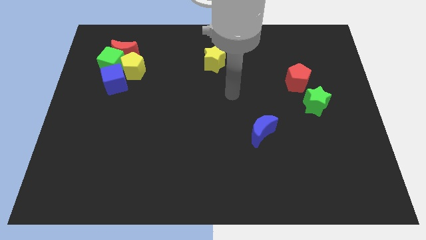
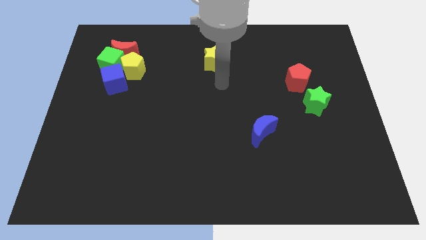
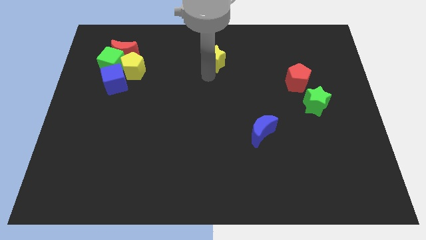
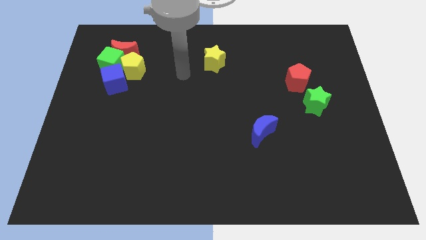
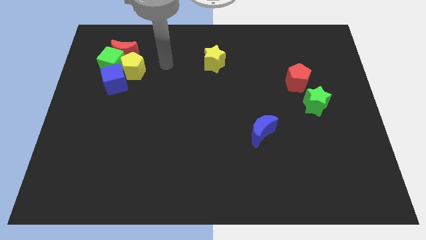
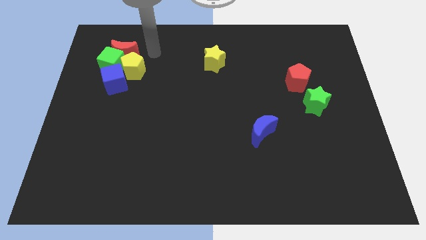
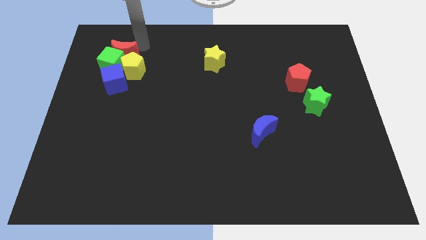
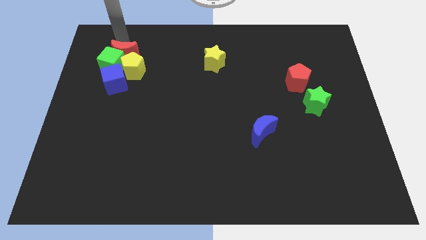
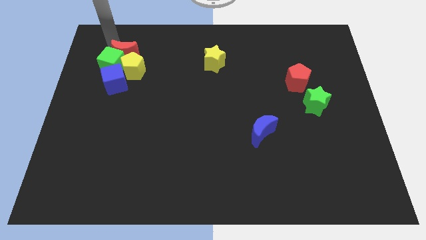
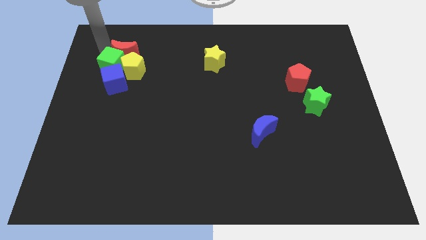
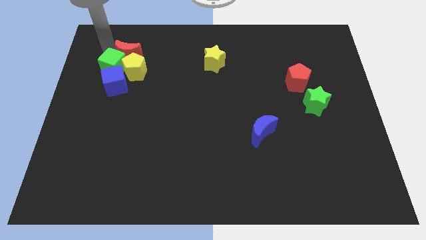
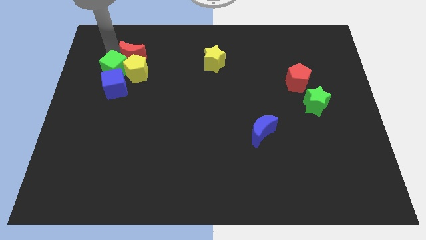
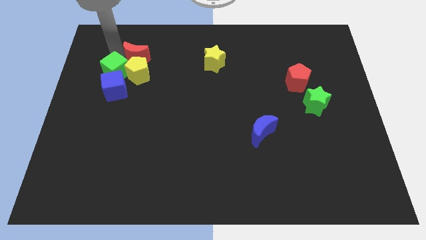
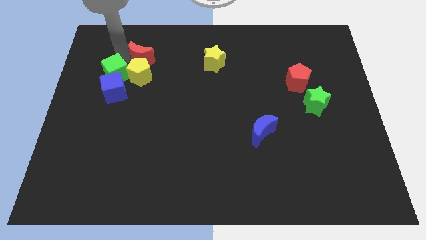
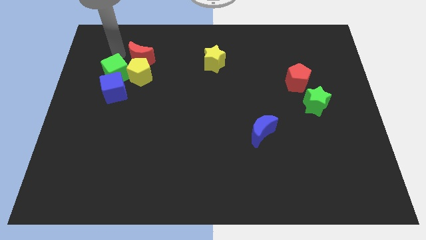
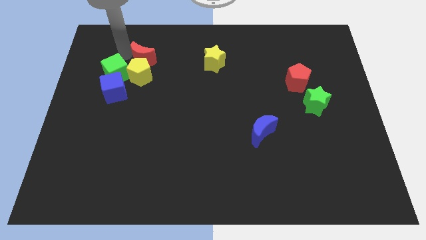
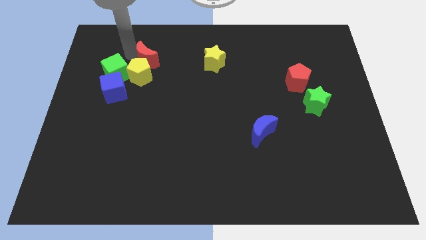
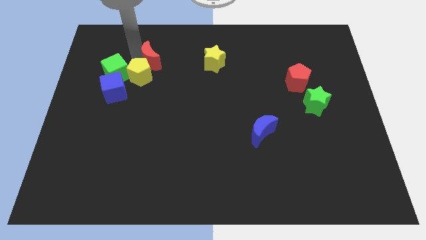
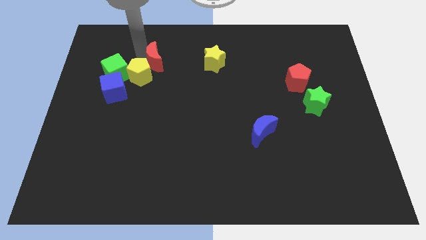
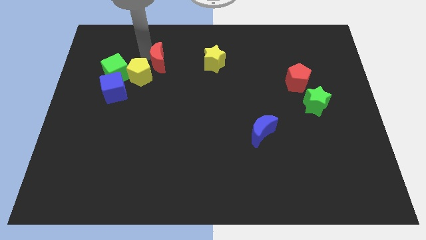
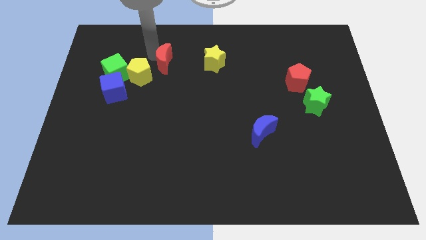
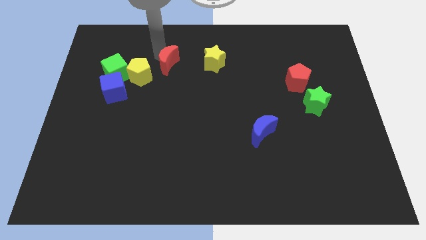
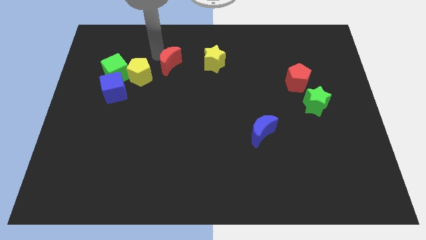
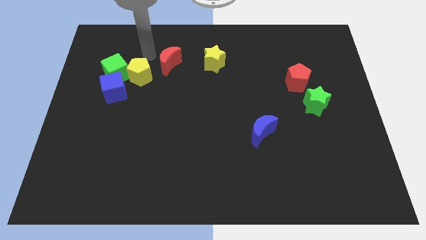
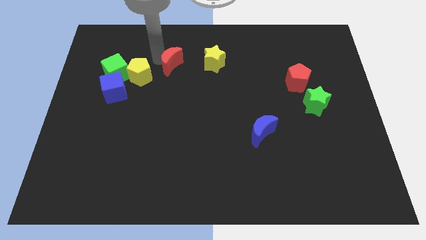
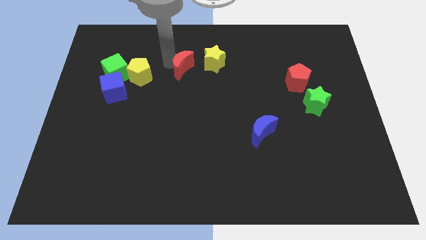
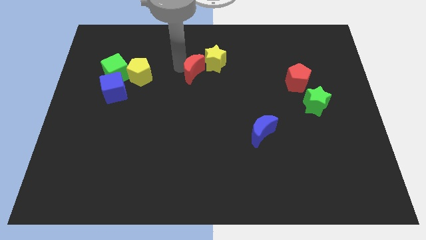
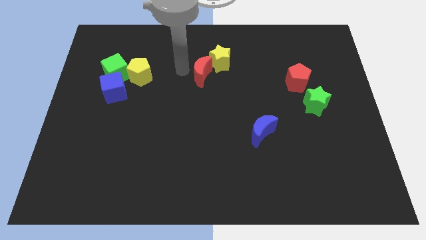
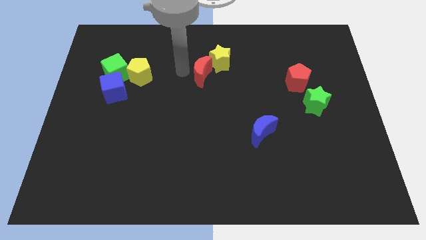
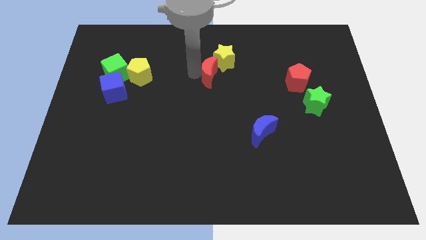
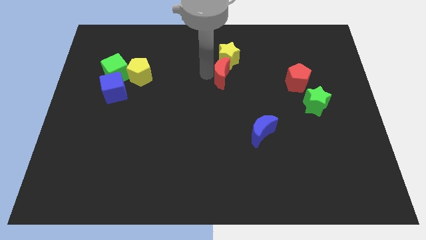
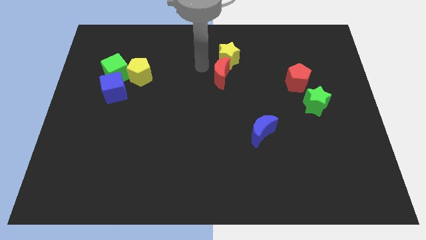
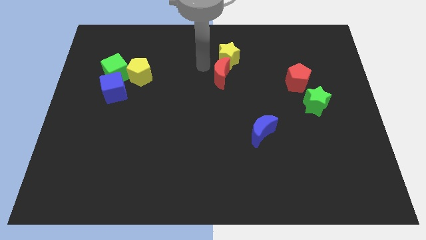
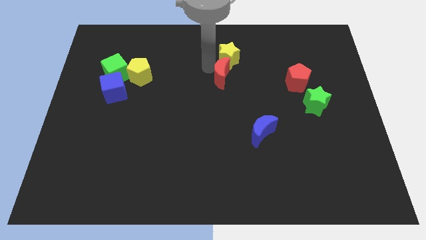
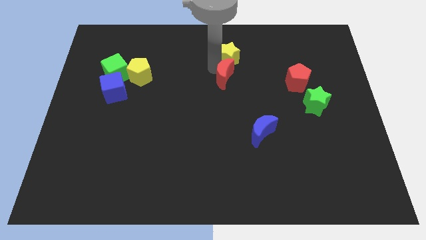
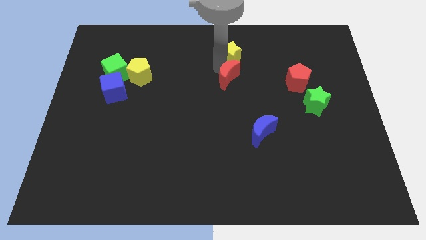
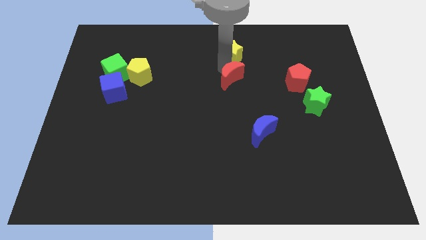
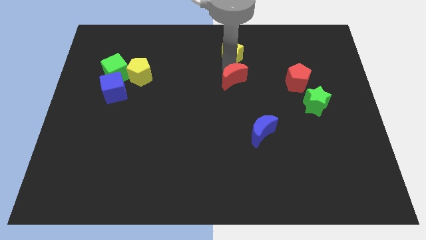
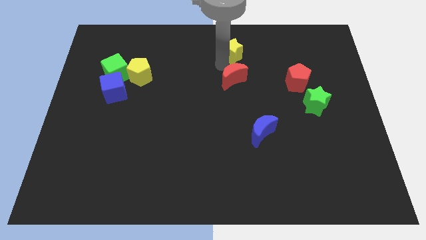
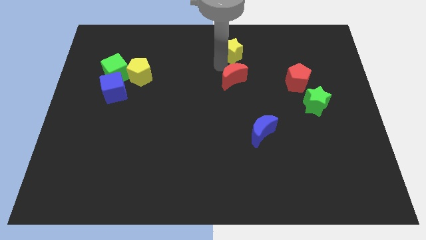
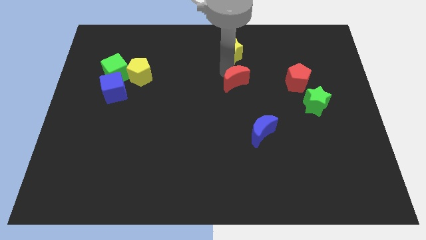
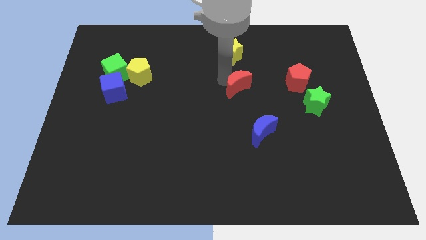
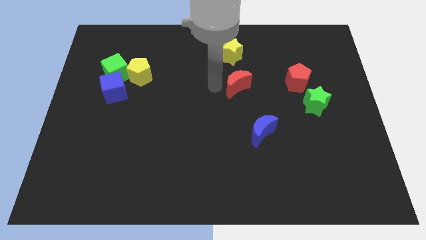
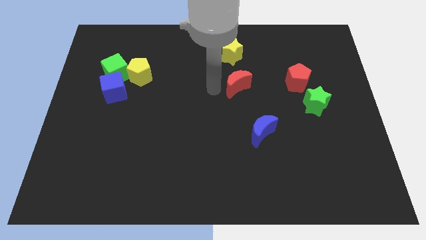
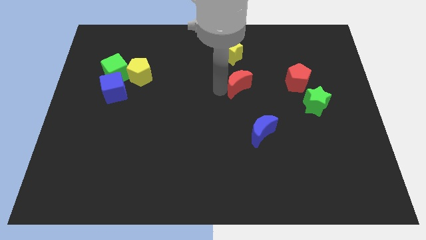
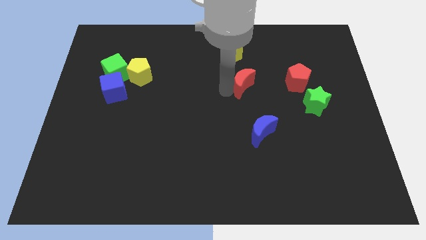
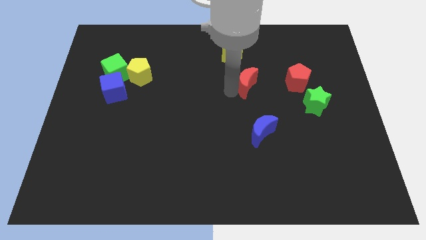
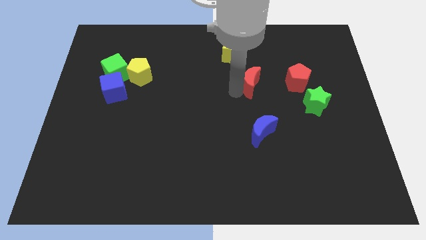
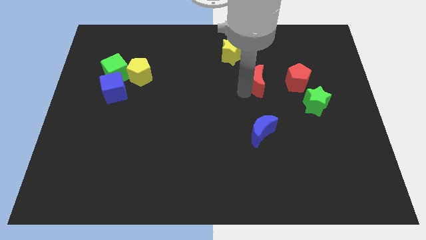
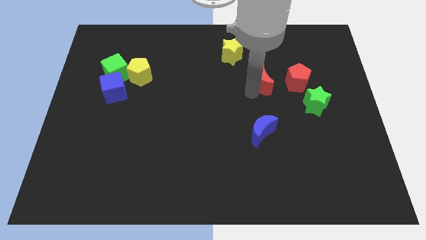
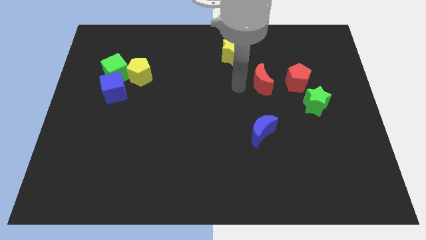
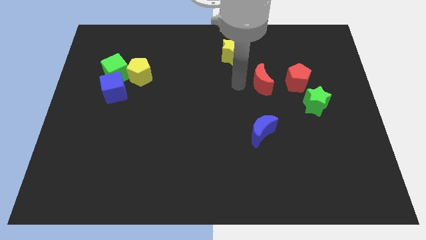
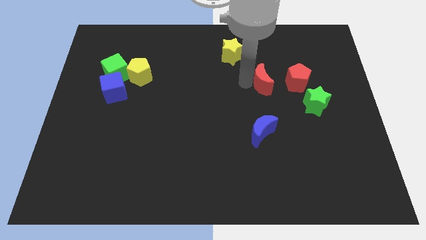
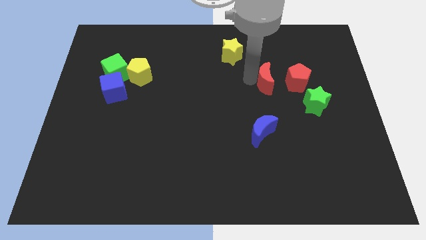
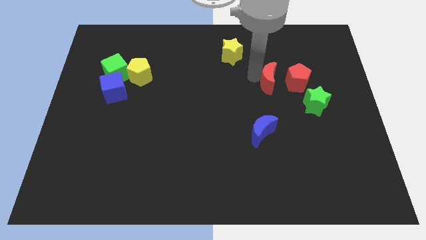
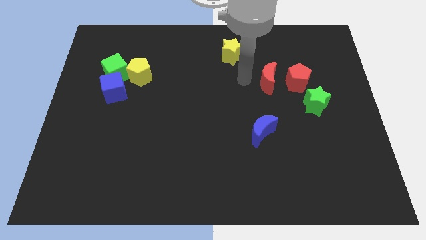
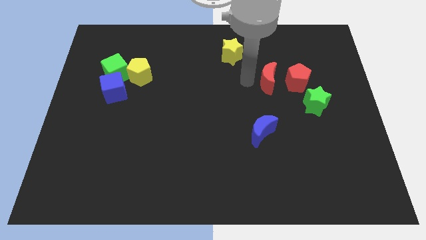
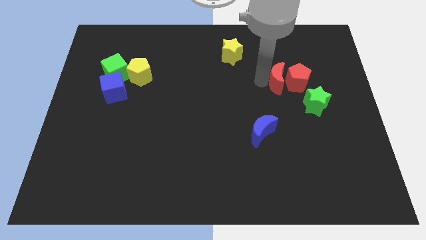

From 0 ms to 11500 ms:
put the red moon to the red pentagon

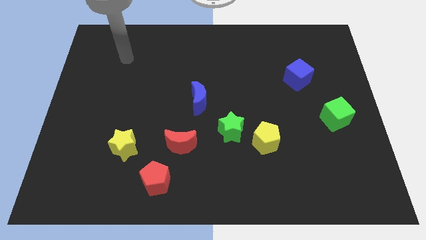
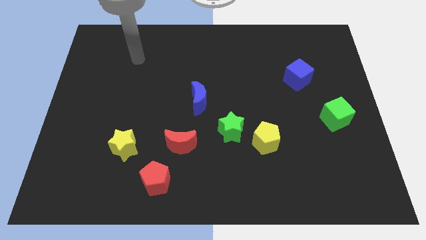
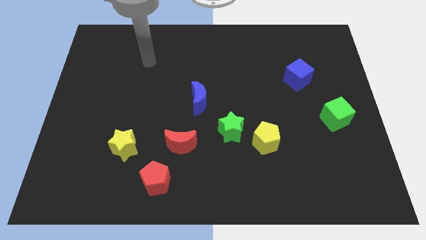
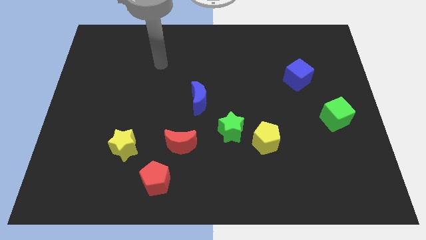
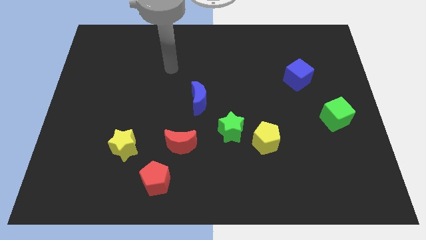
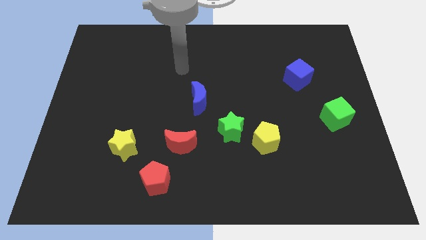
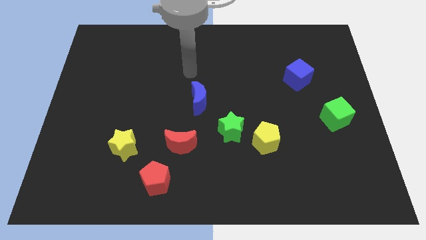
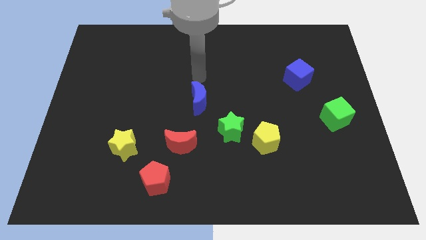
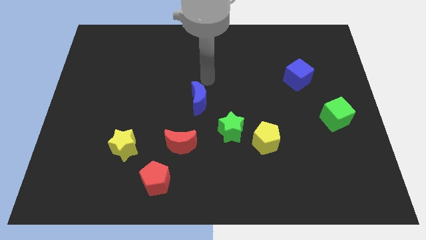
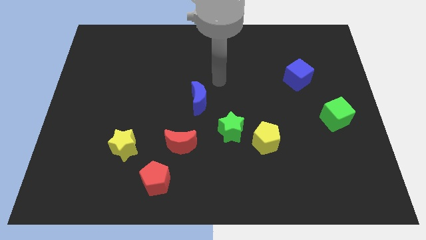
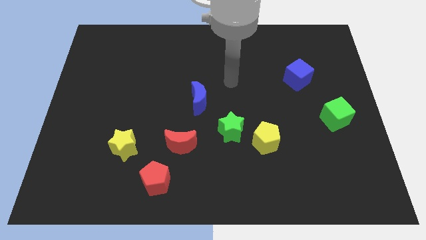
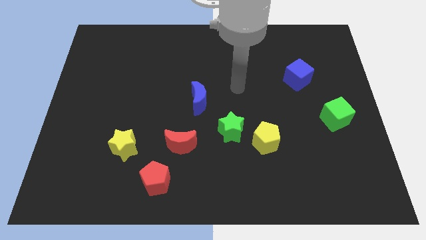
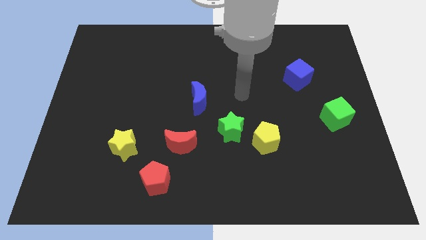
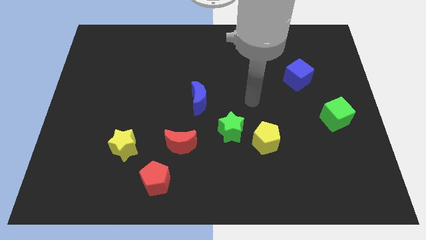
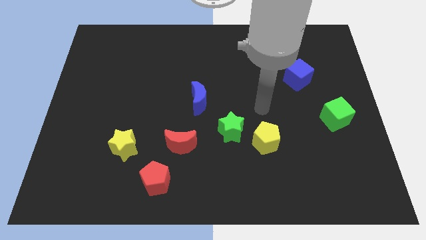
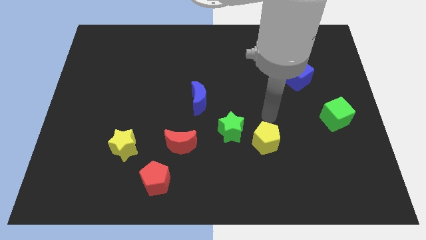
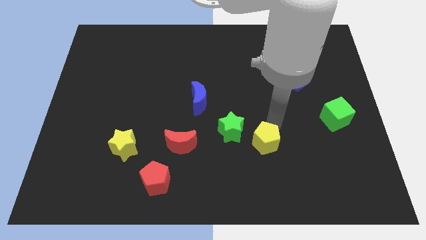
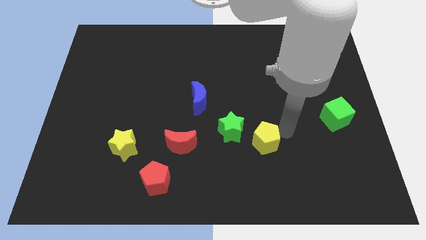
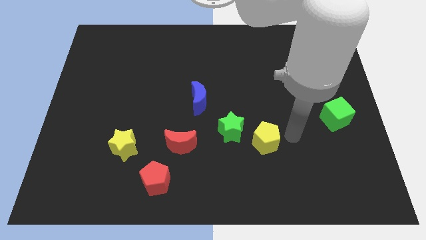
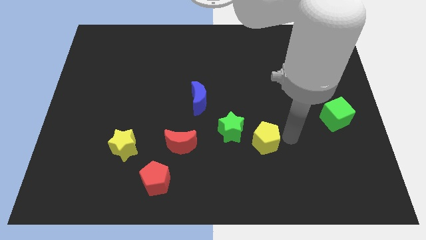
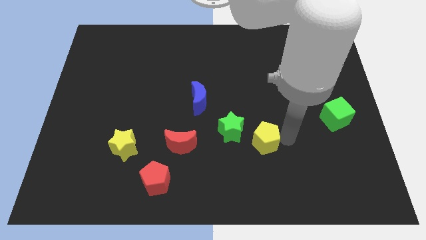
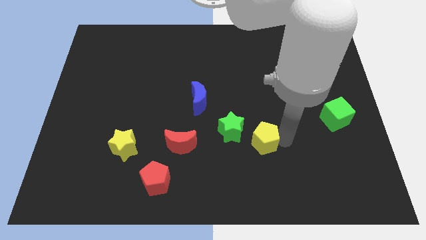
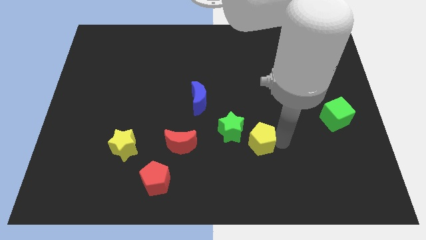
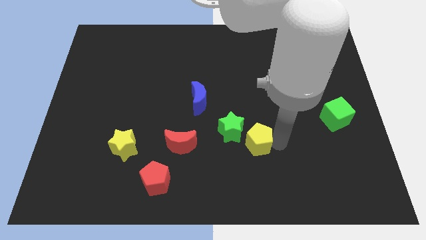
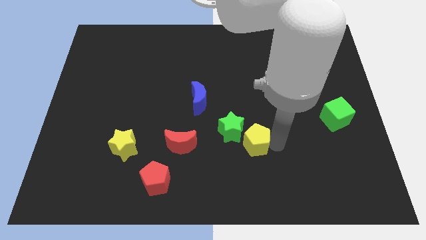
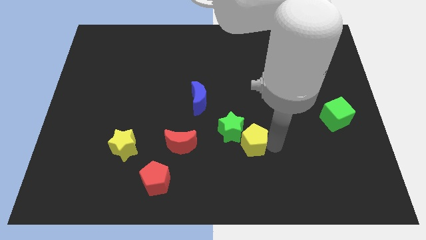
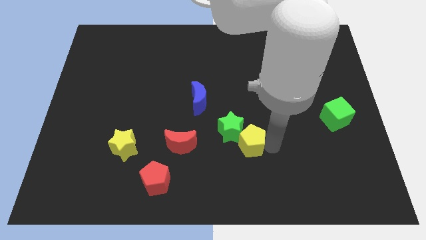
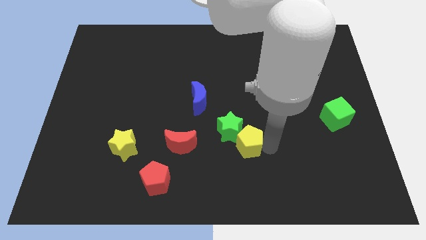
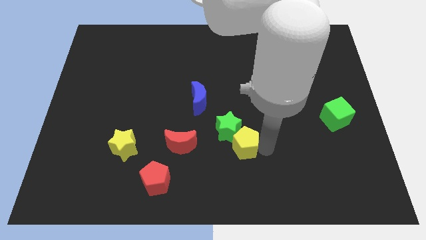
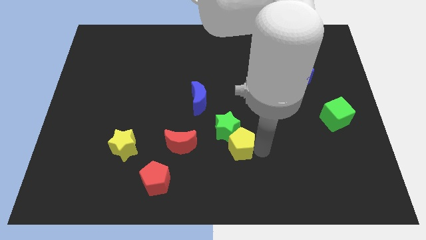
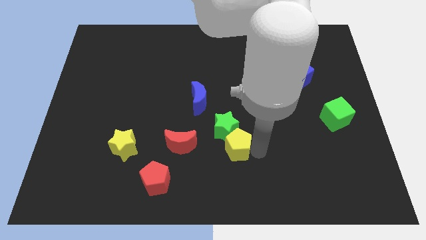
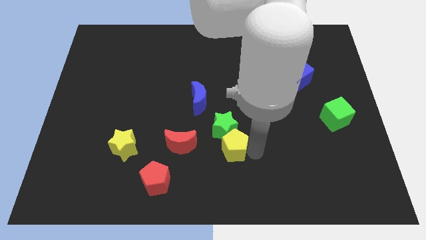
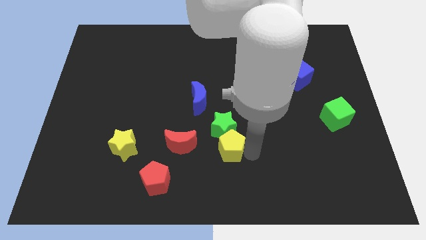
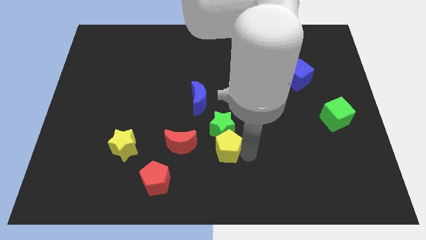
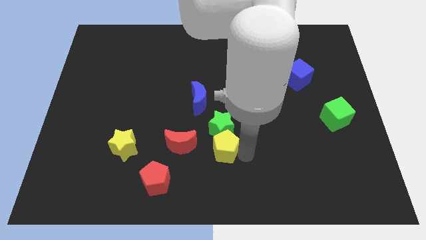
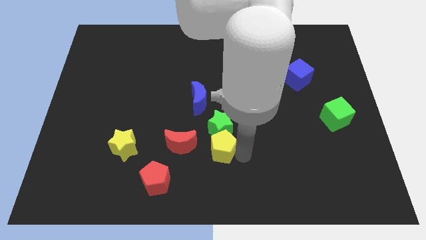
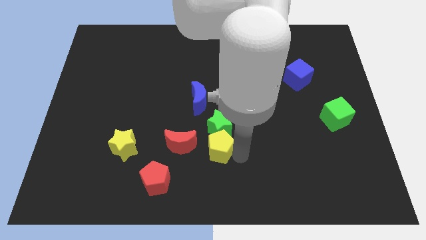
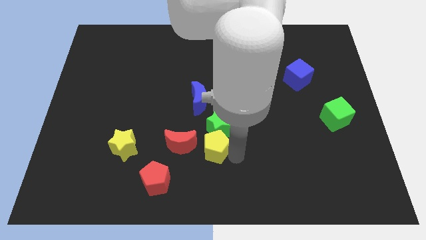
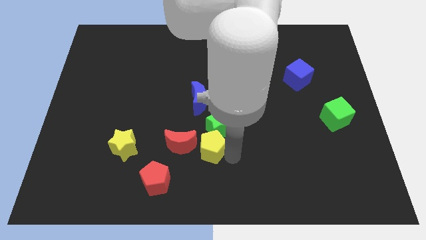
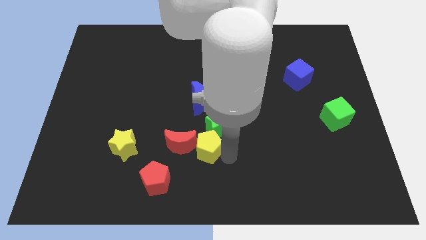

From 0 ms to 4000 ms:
put the yellow pentagon towards the red moon
